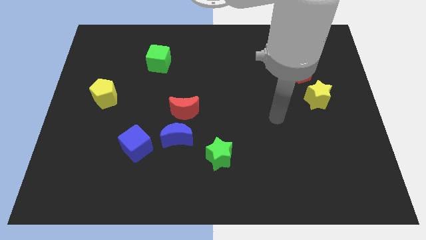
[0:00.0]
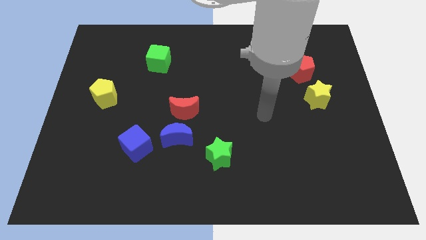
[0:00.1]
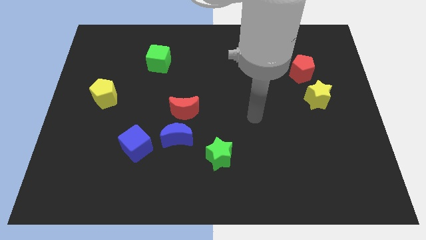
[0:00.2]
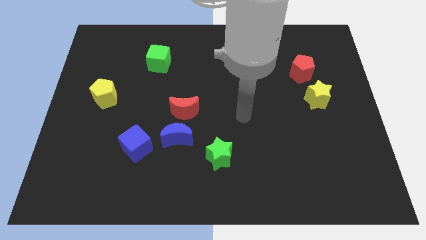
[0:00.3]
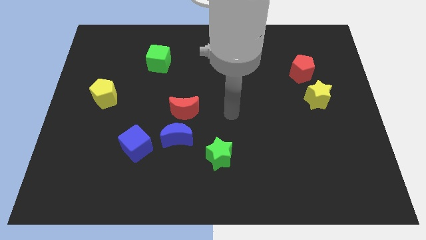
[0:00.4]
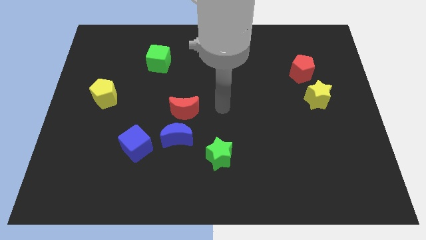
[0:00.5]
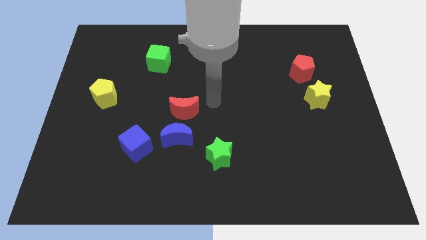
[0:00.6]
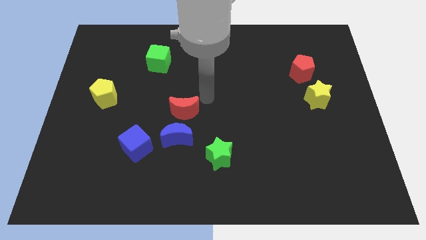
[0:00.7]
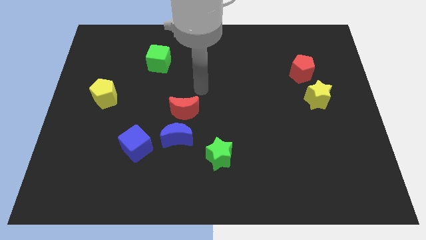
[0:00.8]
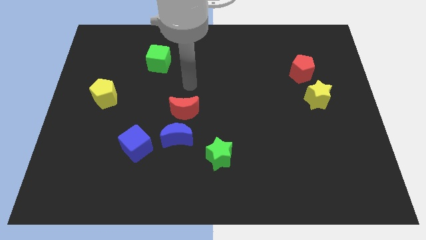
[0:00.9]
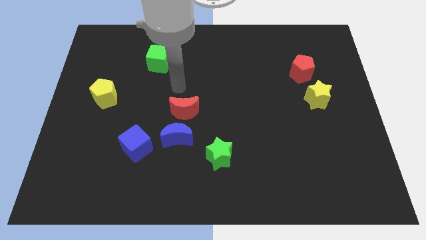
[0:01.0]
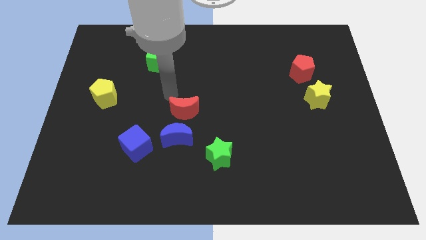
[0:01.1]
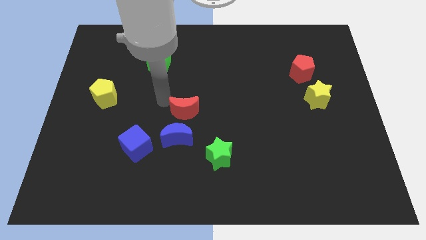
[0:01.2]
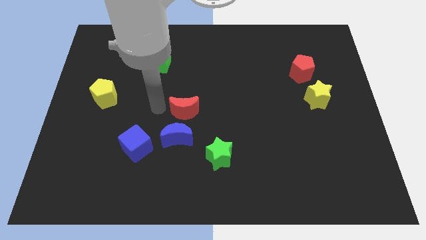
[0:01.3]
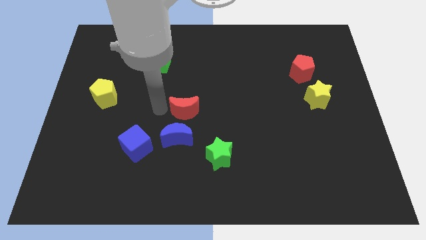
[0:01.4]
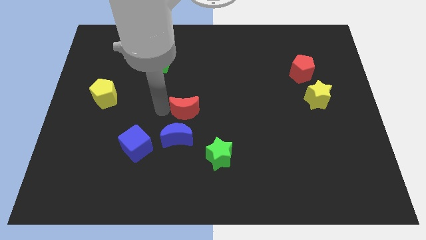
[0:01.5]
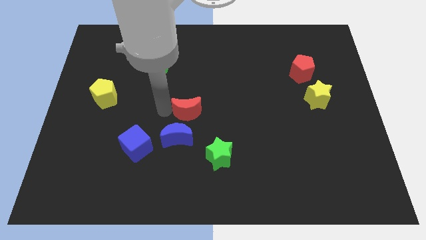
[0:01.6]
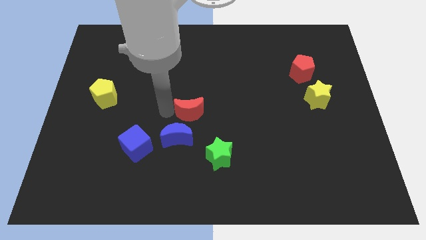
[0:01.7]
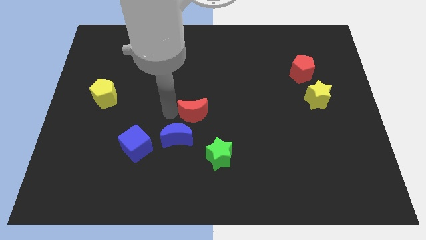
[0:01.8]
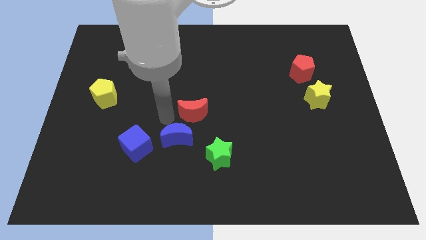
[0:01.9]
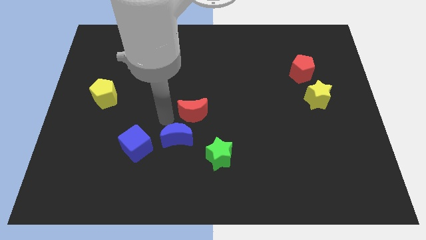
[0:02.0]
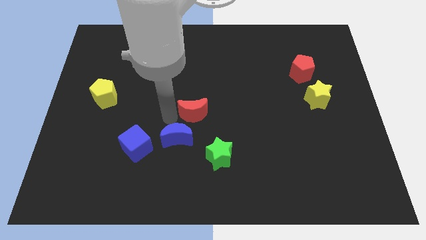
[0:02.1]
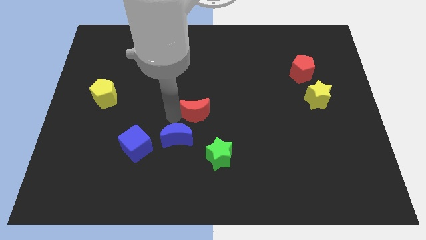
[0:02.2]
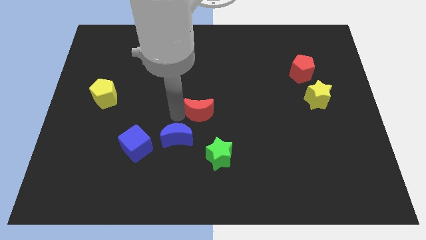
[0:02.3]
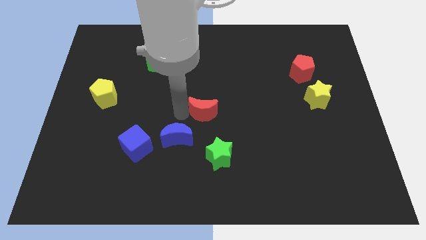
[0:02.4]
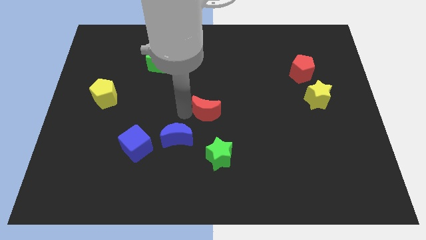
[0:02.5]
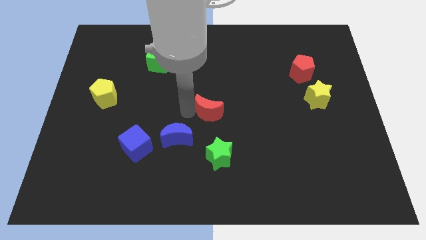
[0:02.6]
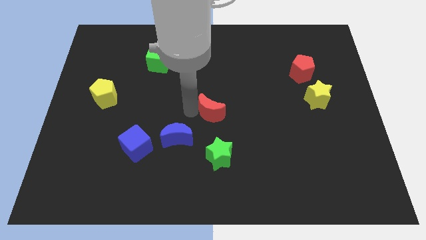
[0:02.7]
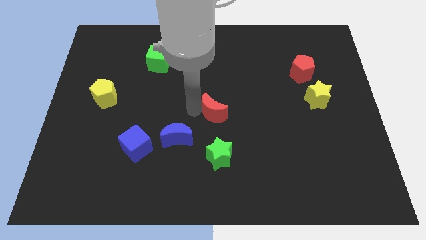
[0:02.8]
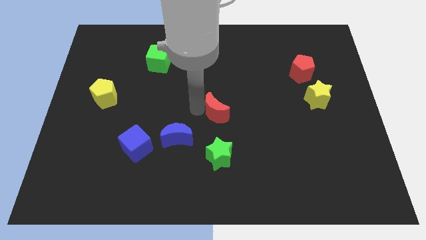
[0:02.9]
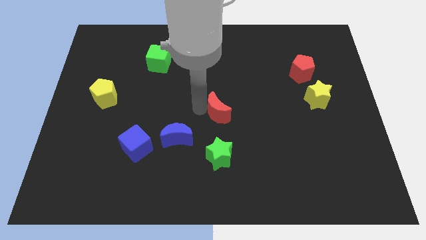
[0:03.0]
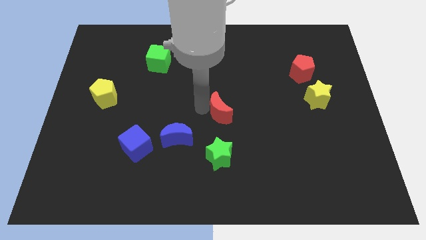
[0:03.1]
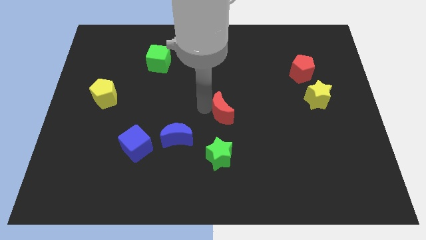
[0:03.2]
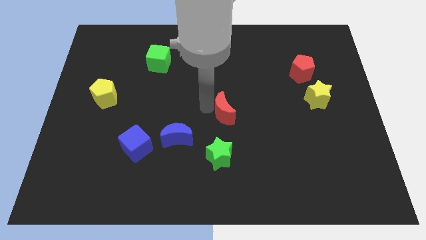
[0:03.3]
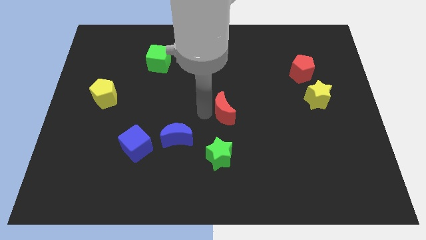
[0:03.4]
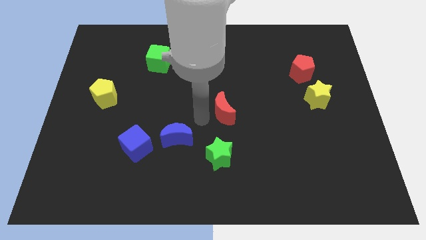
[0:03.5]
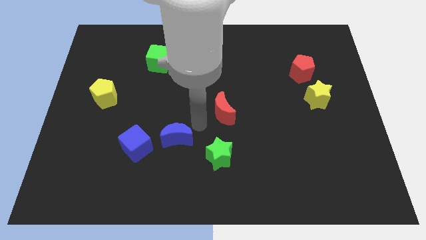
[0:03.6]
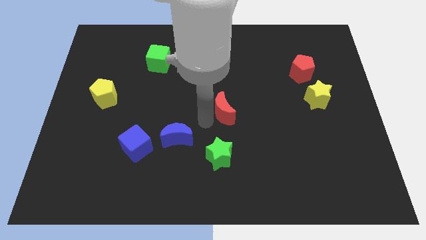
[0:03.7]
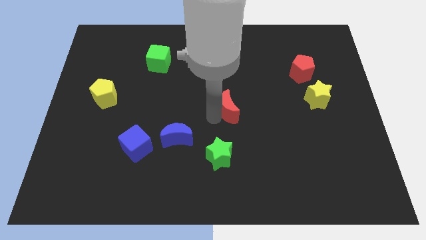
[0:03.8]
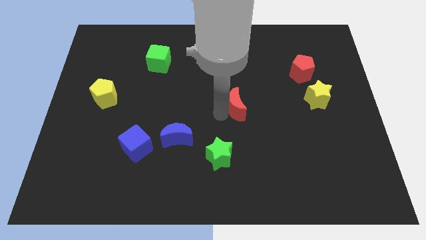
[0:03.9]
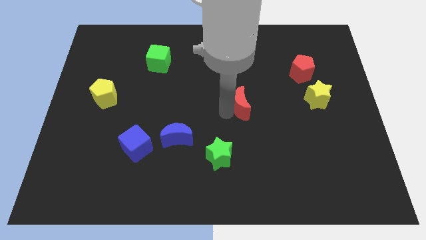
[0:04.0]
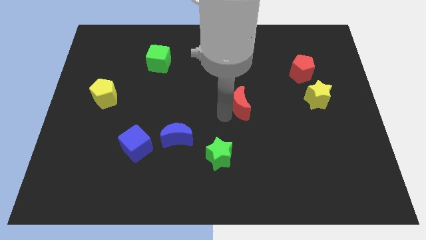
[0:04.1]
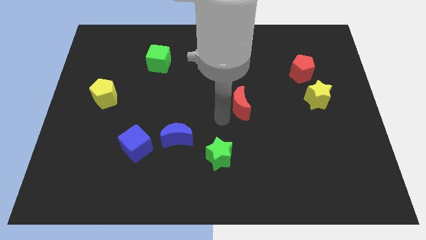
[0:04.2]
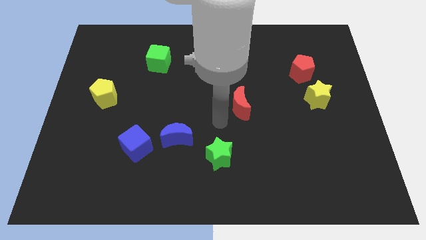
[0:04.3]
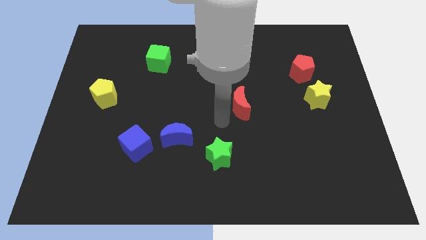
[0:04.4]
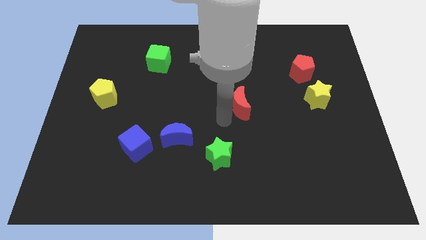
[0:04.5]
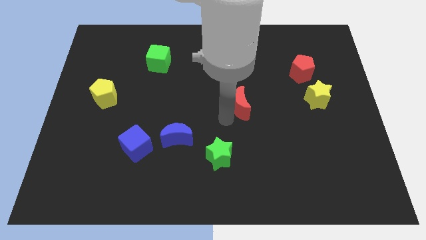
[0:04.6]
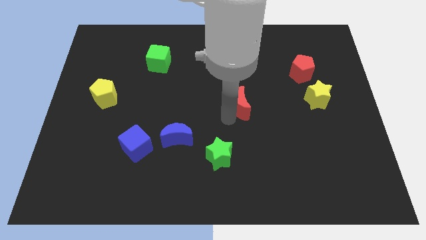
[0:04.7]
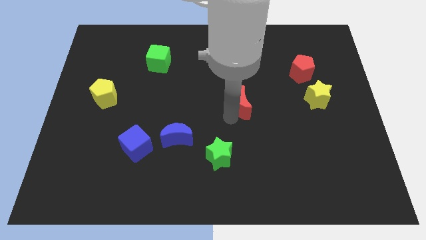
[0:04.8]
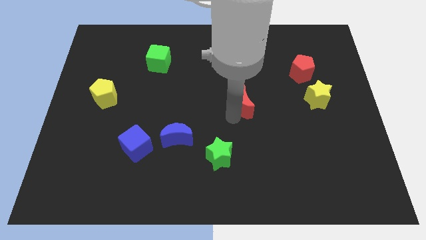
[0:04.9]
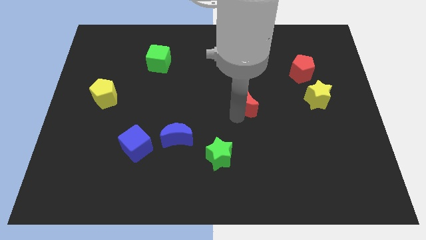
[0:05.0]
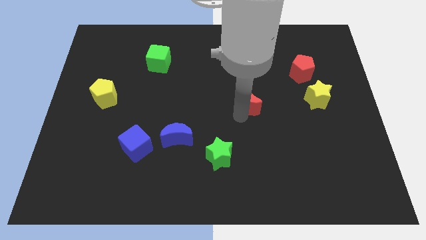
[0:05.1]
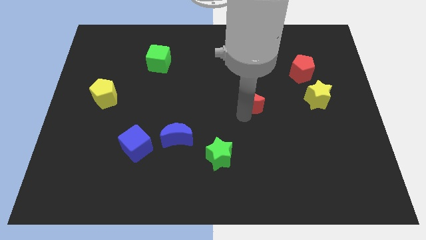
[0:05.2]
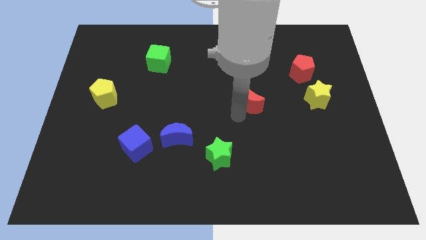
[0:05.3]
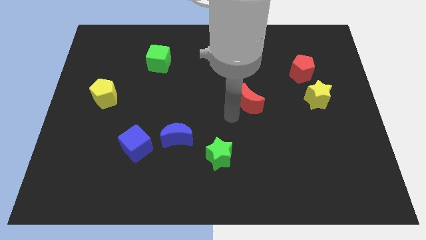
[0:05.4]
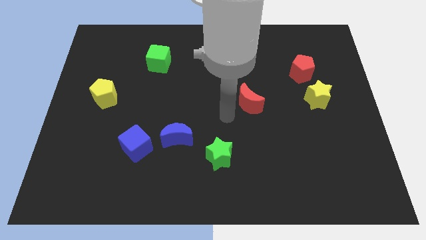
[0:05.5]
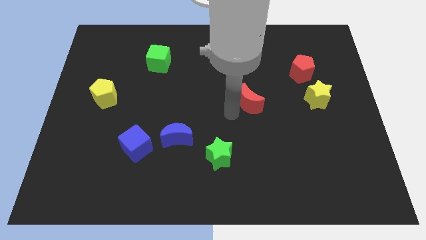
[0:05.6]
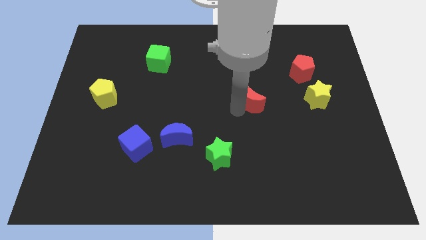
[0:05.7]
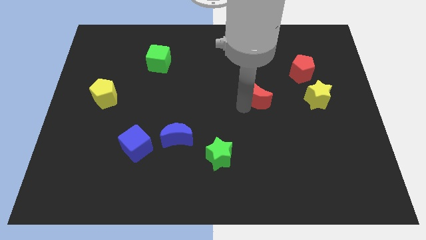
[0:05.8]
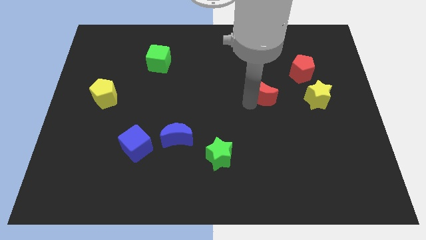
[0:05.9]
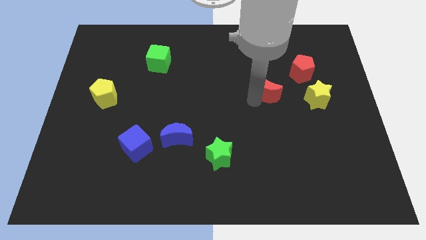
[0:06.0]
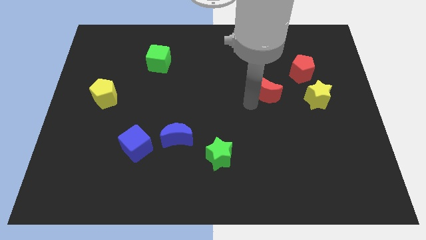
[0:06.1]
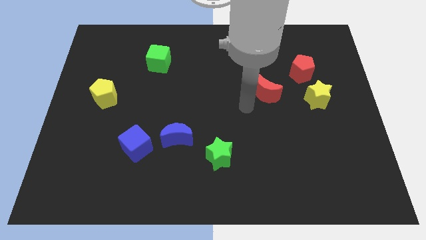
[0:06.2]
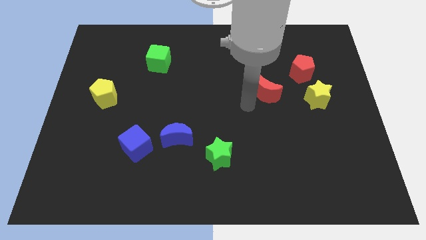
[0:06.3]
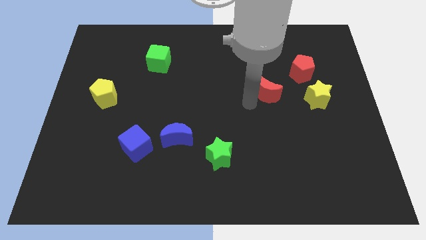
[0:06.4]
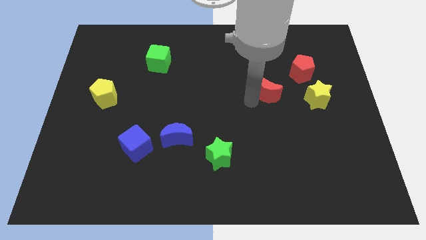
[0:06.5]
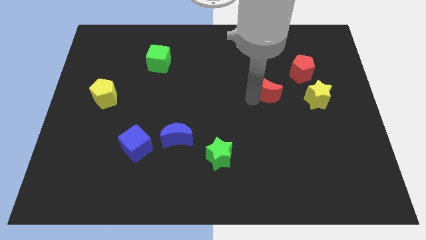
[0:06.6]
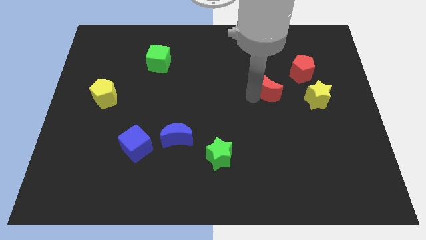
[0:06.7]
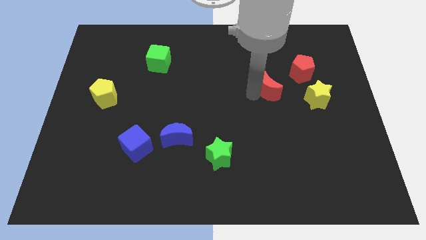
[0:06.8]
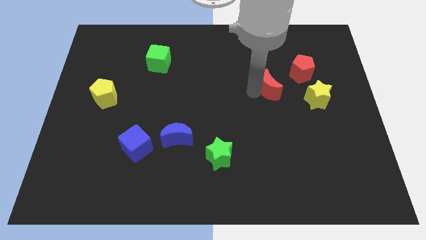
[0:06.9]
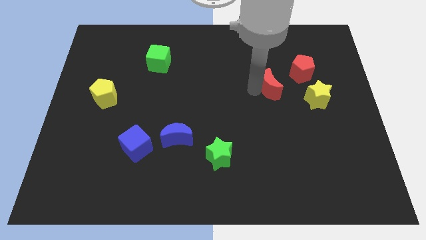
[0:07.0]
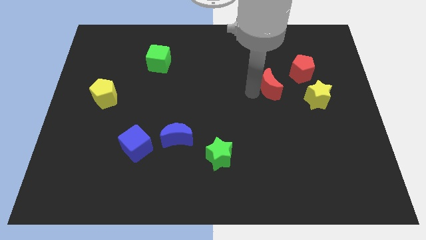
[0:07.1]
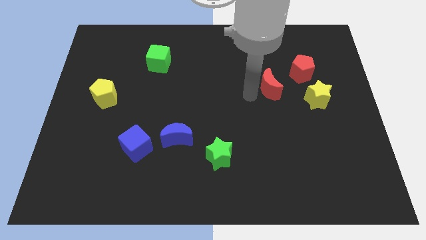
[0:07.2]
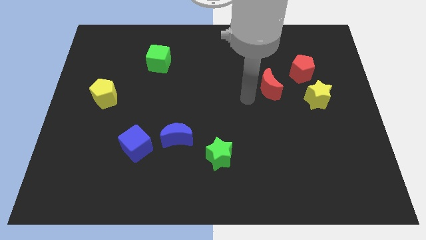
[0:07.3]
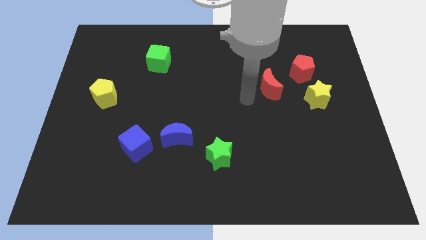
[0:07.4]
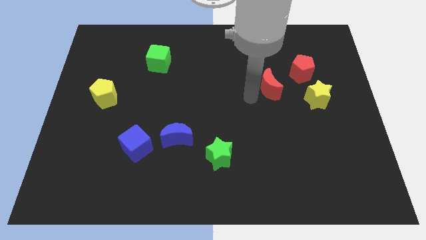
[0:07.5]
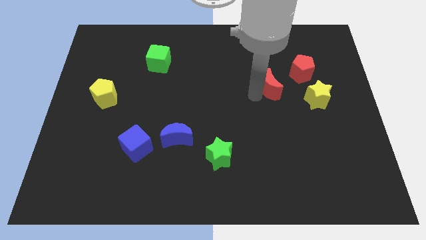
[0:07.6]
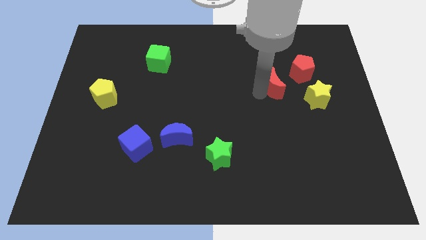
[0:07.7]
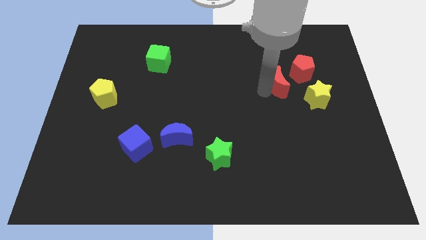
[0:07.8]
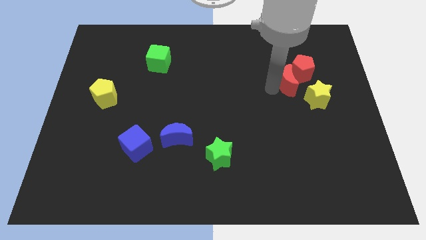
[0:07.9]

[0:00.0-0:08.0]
put the red moon to the red pentagon
